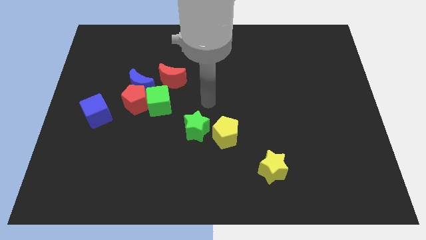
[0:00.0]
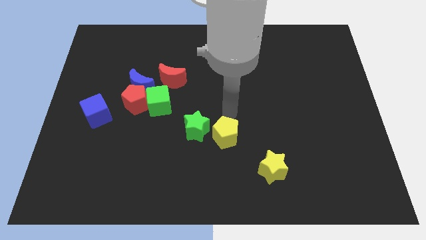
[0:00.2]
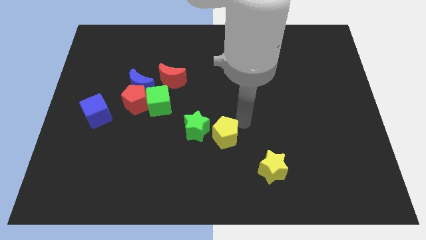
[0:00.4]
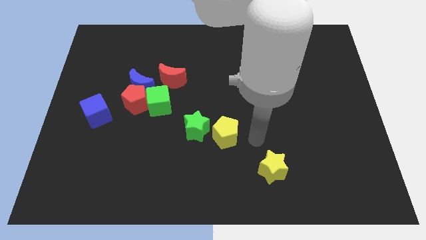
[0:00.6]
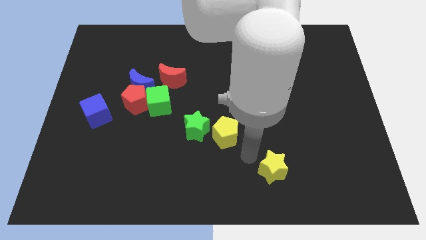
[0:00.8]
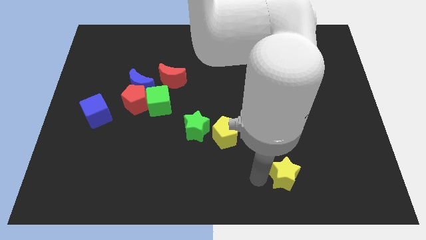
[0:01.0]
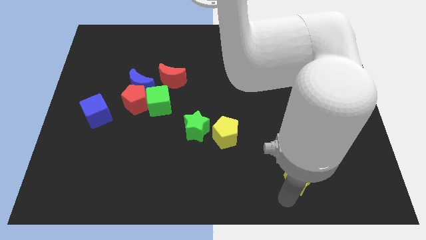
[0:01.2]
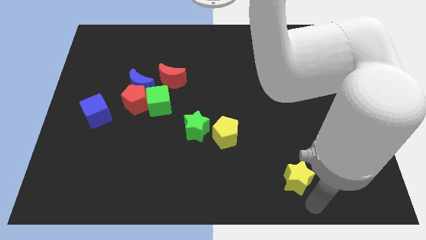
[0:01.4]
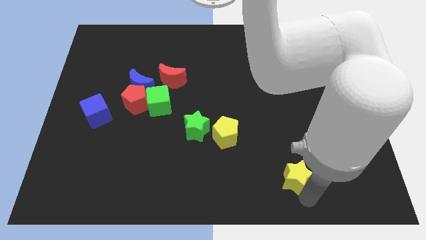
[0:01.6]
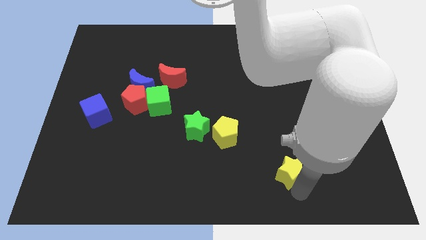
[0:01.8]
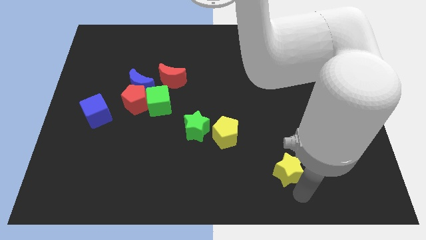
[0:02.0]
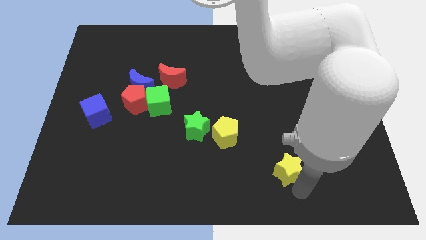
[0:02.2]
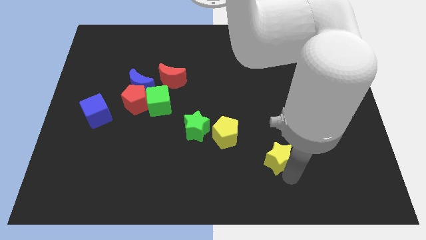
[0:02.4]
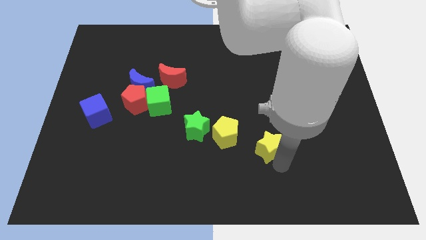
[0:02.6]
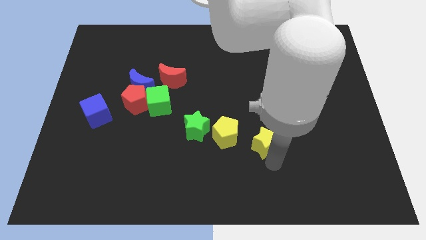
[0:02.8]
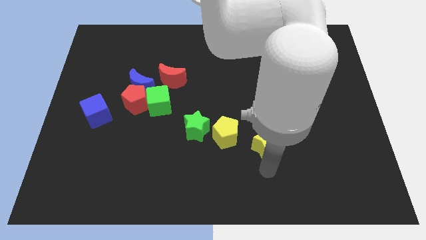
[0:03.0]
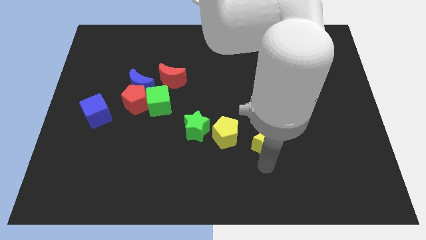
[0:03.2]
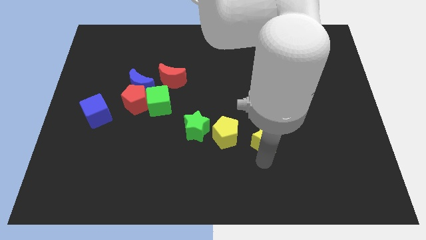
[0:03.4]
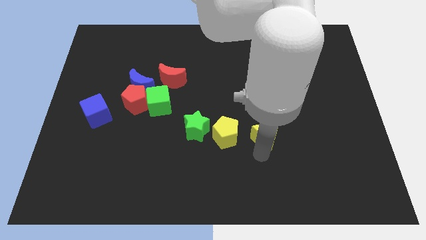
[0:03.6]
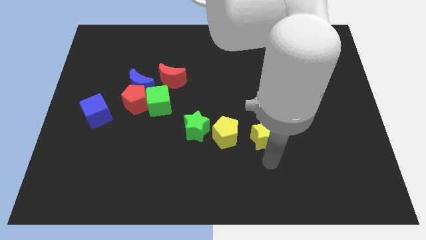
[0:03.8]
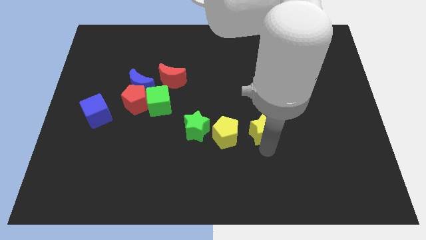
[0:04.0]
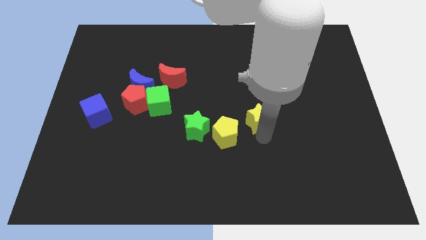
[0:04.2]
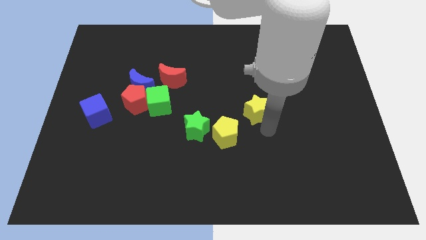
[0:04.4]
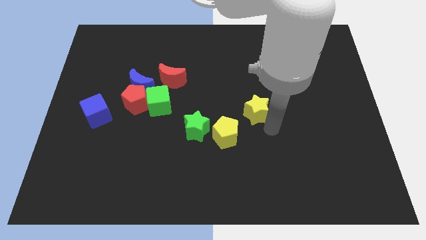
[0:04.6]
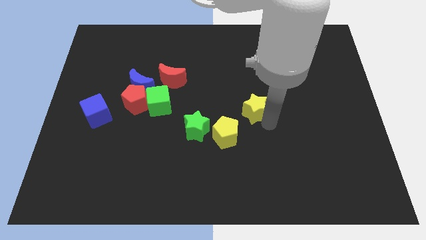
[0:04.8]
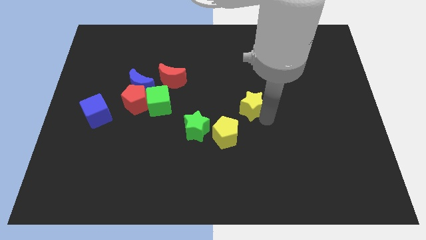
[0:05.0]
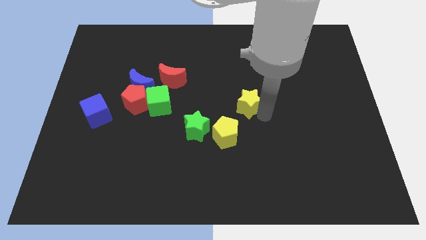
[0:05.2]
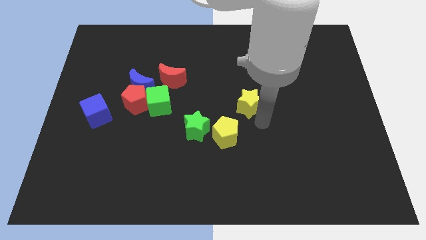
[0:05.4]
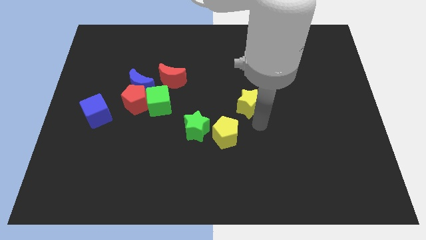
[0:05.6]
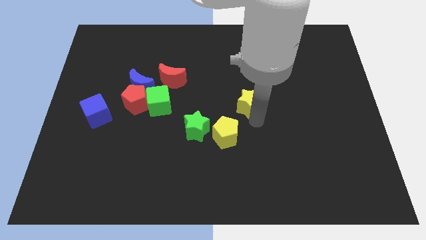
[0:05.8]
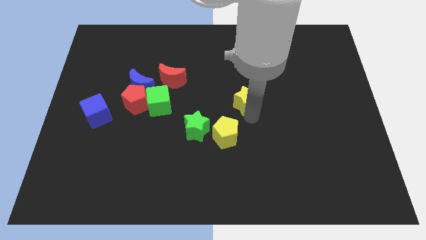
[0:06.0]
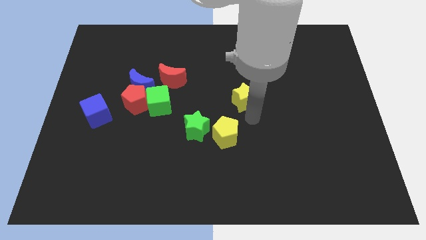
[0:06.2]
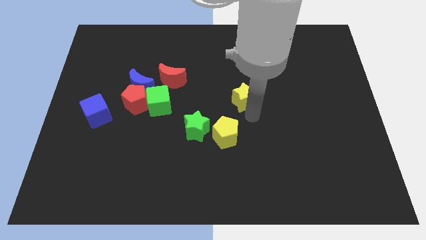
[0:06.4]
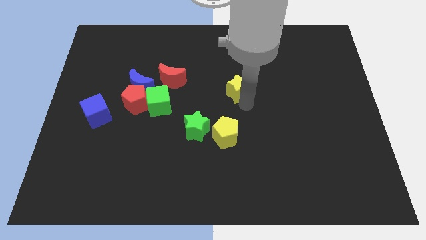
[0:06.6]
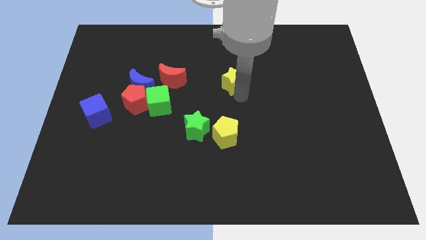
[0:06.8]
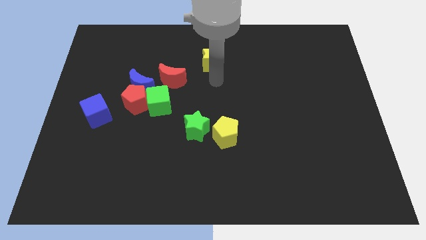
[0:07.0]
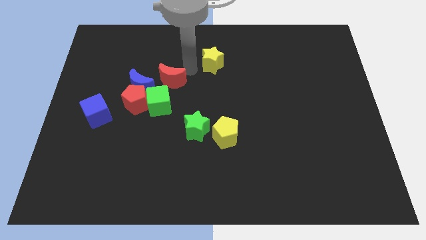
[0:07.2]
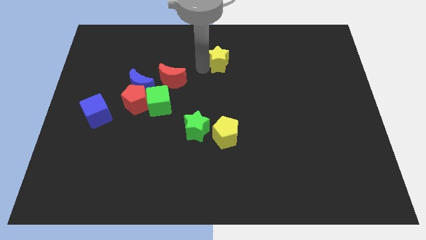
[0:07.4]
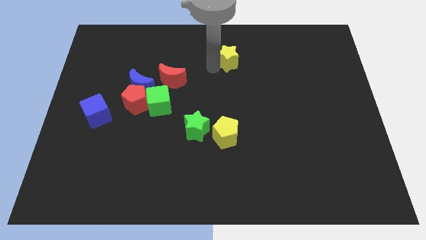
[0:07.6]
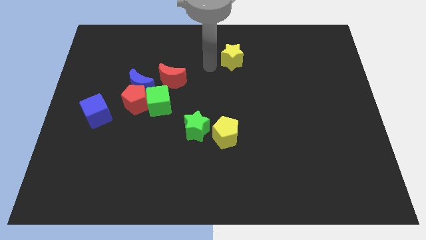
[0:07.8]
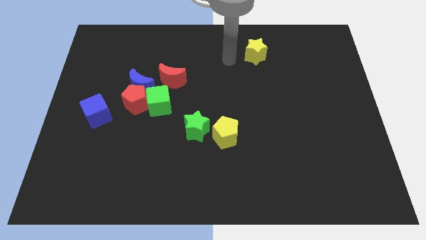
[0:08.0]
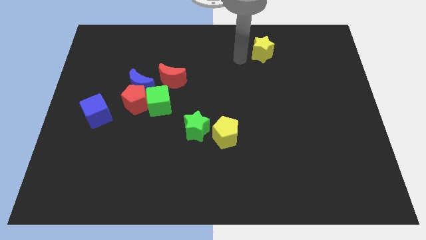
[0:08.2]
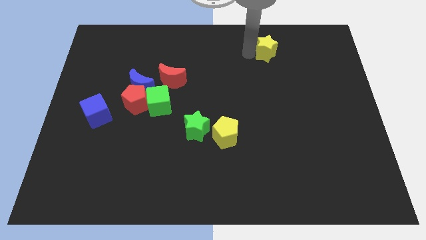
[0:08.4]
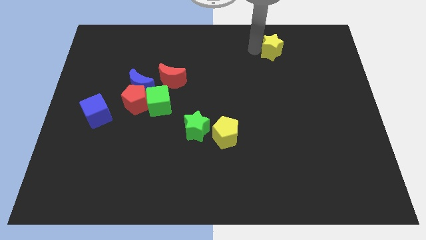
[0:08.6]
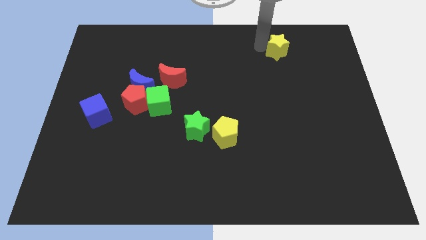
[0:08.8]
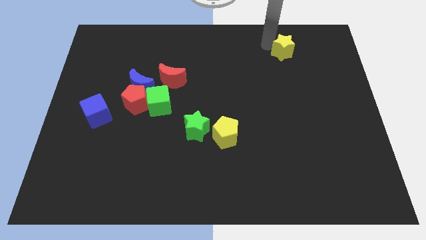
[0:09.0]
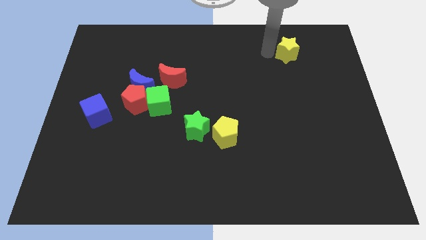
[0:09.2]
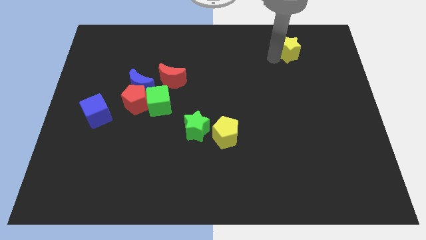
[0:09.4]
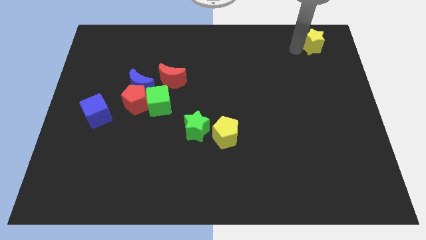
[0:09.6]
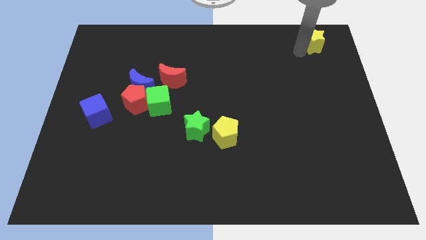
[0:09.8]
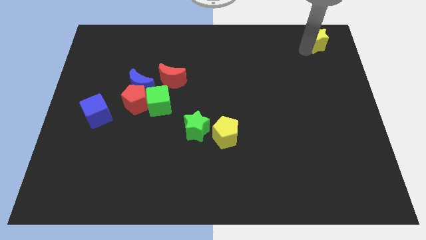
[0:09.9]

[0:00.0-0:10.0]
put the yellow star to the top right corner

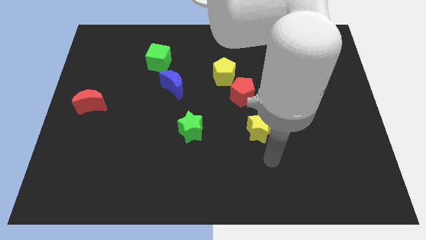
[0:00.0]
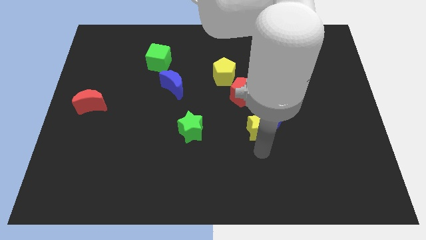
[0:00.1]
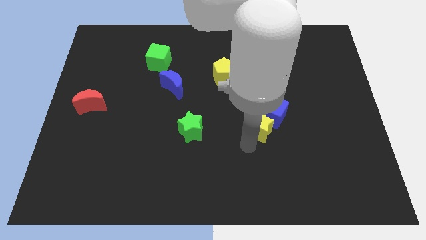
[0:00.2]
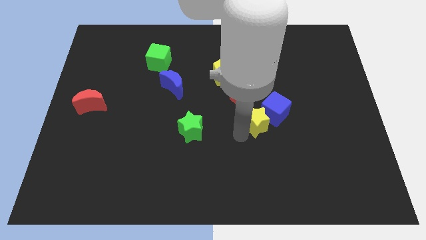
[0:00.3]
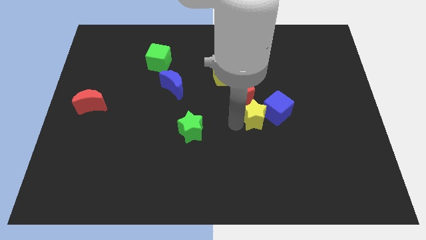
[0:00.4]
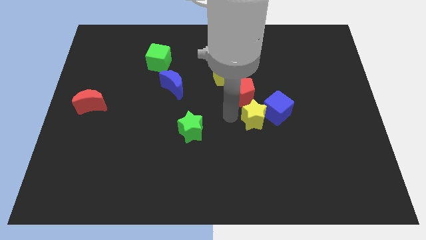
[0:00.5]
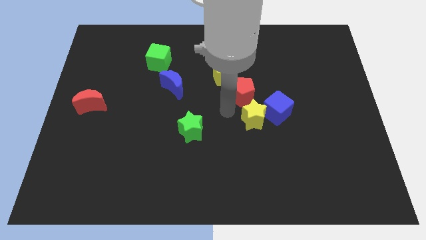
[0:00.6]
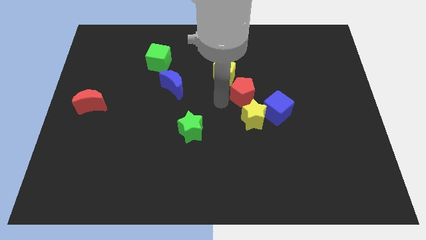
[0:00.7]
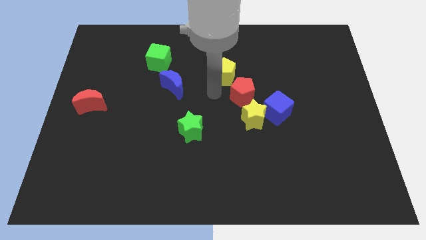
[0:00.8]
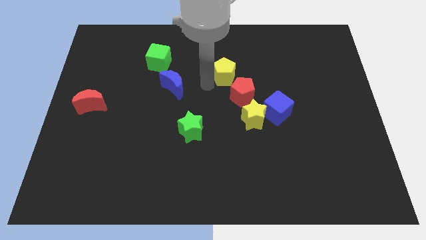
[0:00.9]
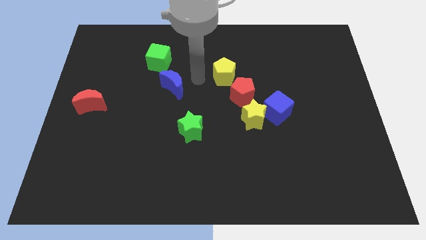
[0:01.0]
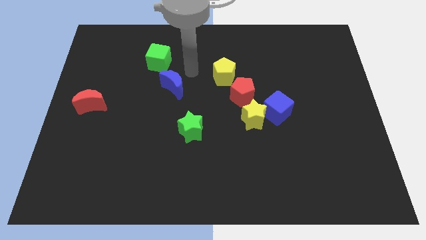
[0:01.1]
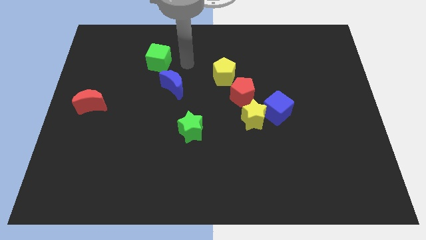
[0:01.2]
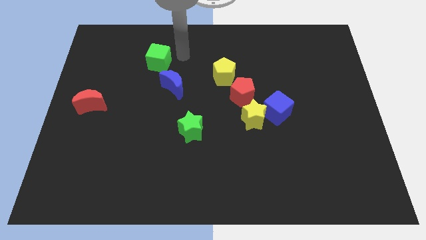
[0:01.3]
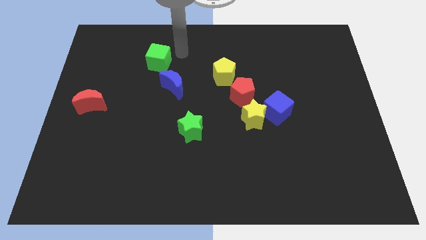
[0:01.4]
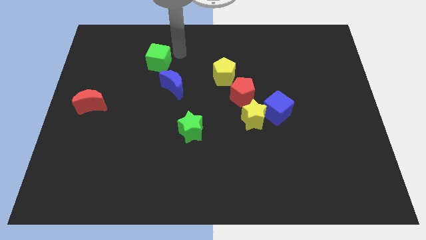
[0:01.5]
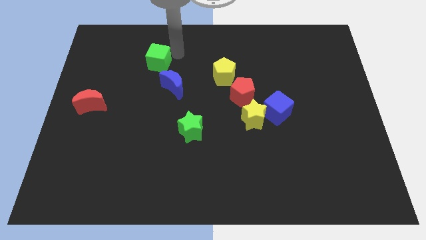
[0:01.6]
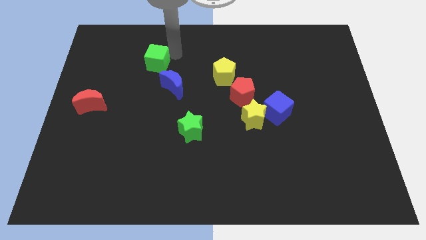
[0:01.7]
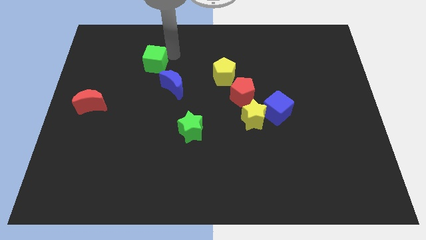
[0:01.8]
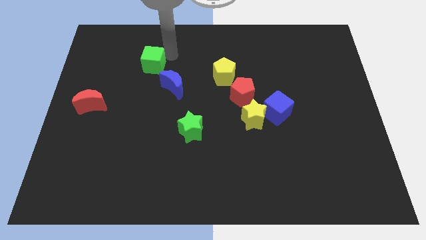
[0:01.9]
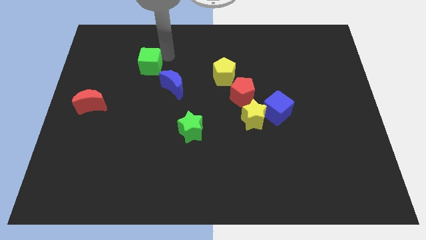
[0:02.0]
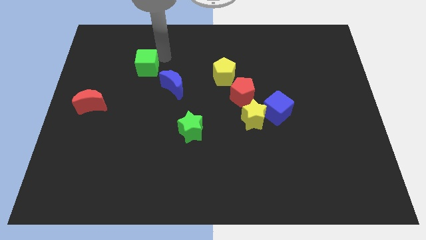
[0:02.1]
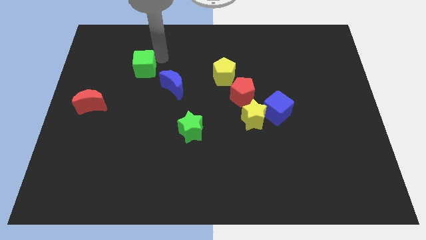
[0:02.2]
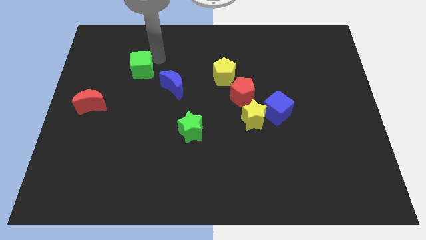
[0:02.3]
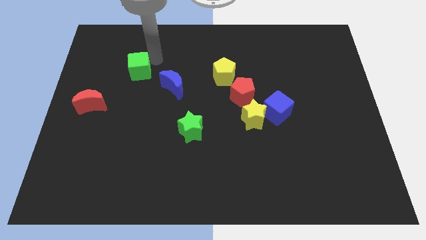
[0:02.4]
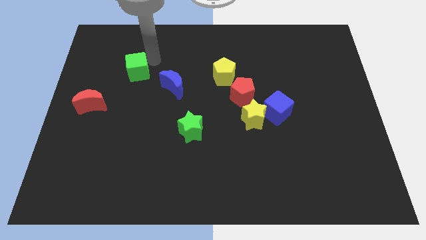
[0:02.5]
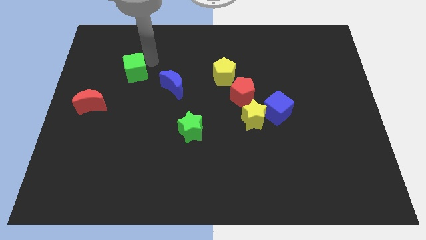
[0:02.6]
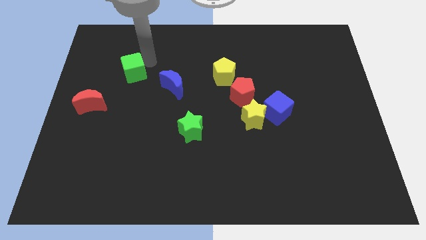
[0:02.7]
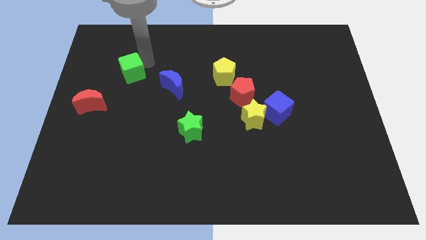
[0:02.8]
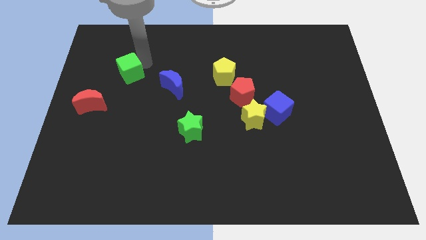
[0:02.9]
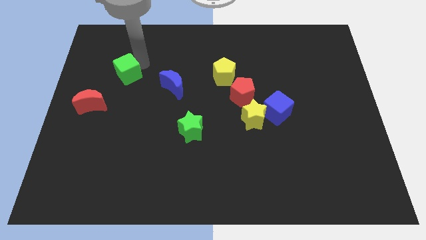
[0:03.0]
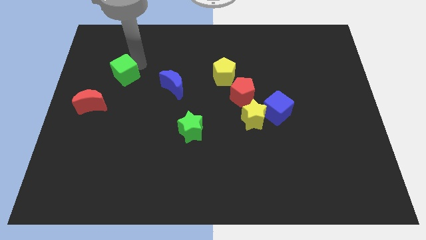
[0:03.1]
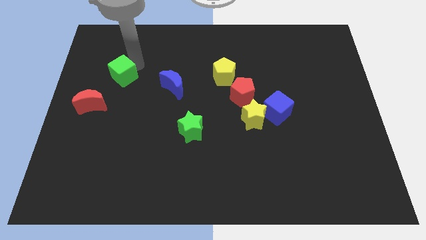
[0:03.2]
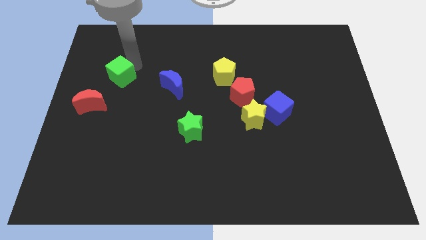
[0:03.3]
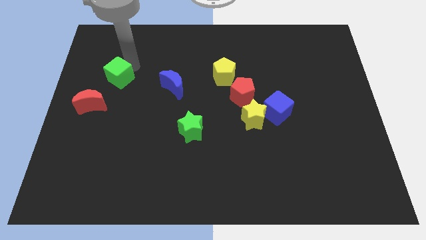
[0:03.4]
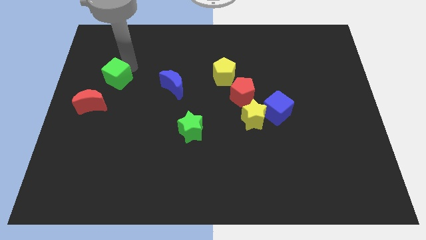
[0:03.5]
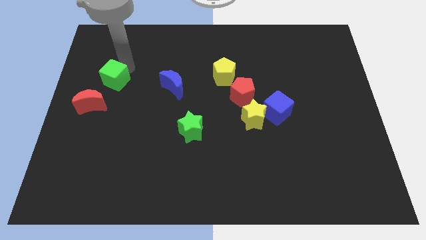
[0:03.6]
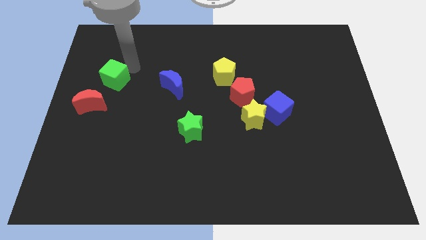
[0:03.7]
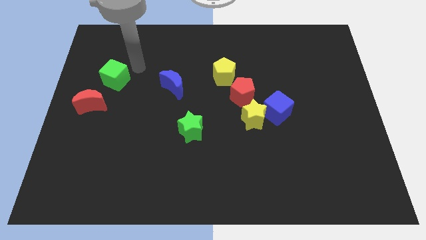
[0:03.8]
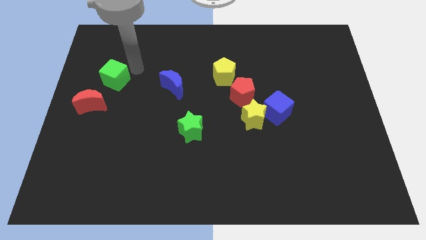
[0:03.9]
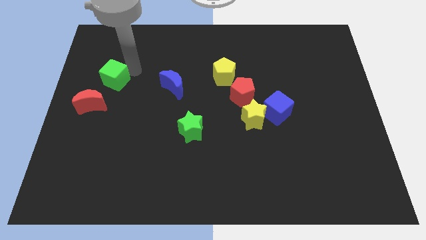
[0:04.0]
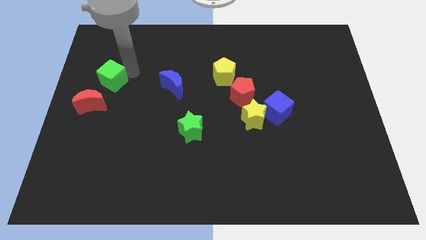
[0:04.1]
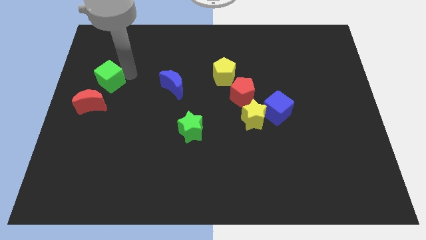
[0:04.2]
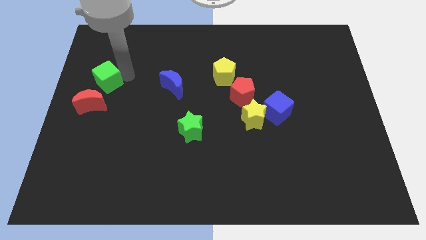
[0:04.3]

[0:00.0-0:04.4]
push the green cube to the center left
